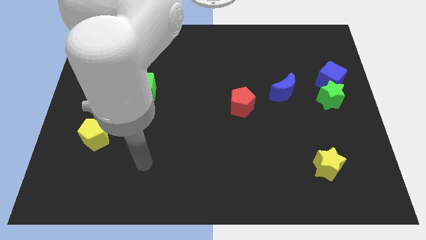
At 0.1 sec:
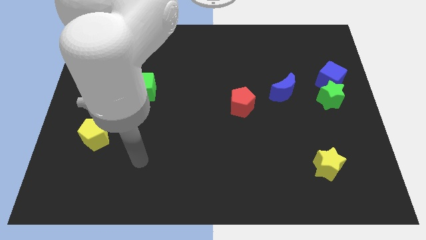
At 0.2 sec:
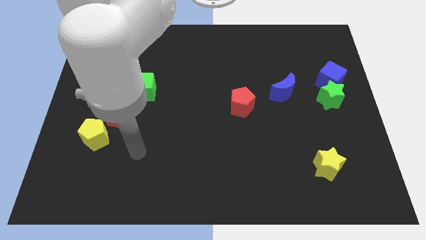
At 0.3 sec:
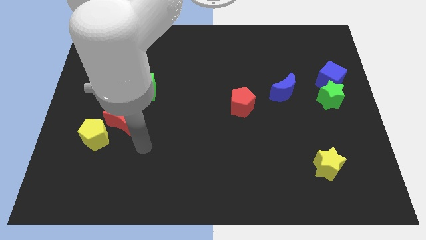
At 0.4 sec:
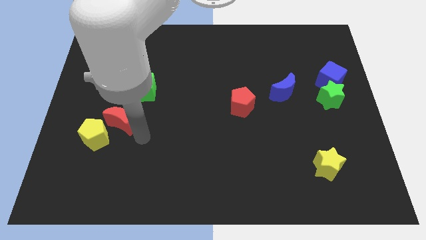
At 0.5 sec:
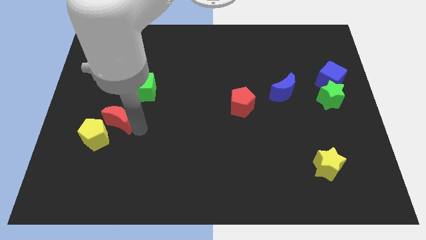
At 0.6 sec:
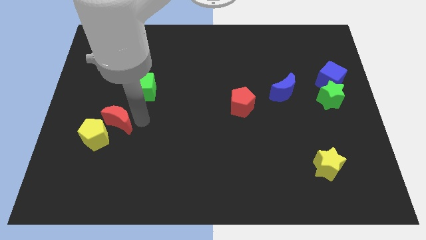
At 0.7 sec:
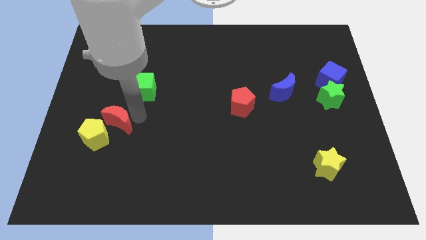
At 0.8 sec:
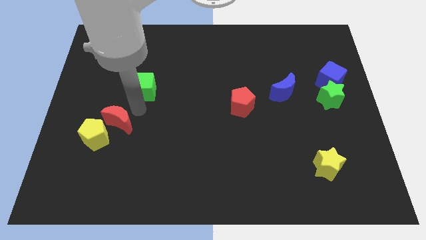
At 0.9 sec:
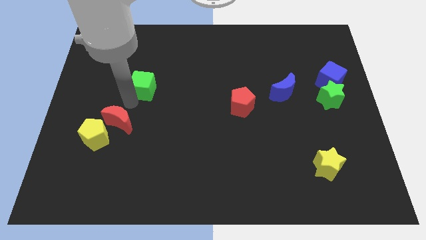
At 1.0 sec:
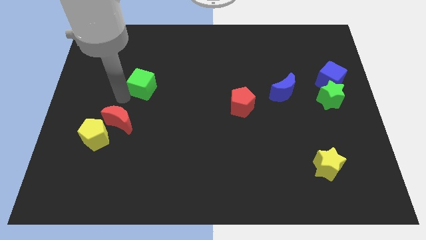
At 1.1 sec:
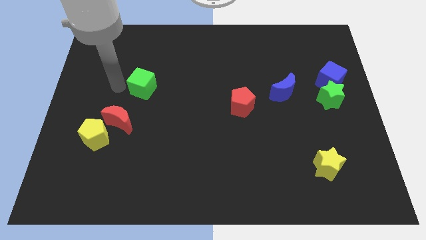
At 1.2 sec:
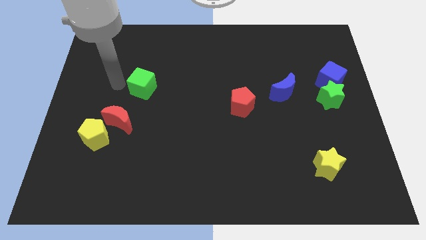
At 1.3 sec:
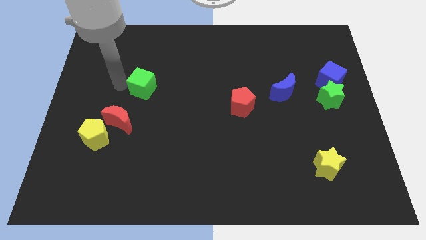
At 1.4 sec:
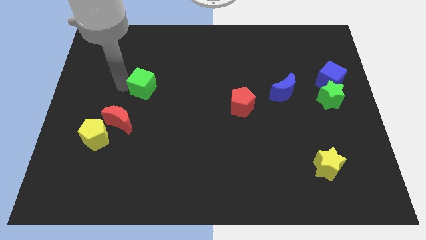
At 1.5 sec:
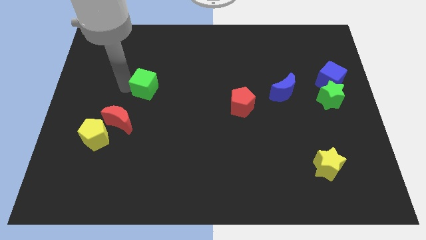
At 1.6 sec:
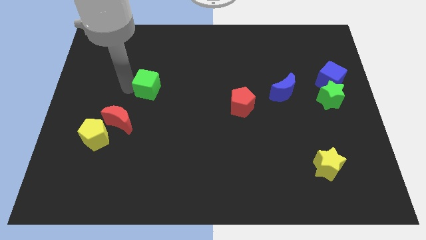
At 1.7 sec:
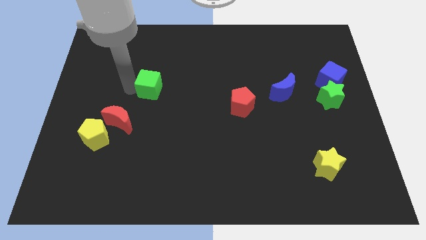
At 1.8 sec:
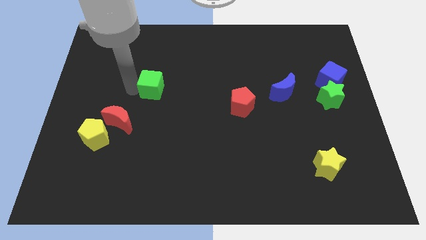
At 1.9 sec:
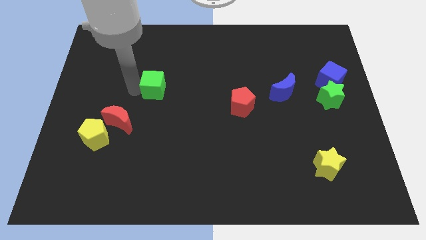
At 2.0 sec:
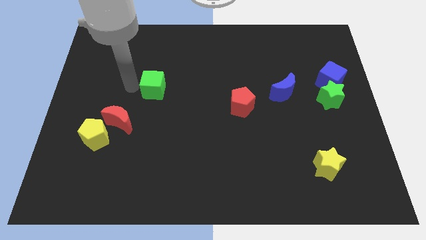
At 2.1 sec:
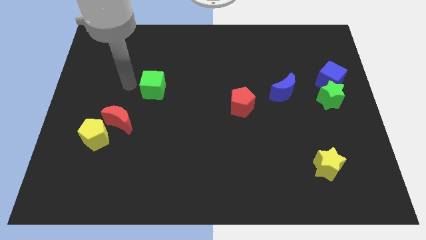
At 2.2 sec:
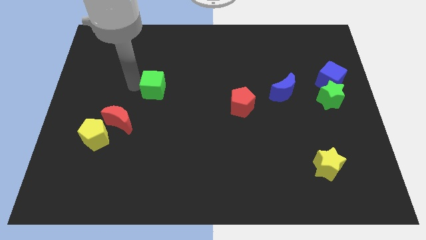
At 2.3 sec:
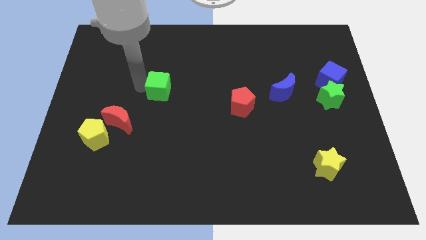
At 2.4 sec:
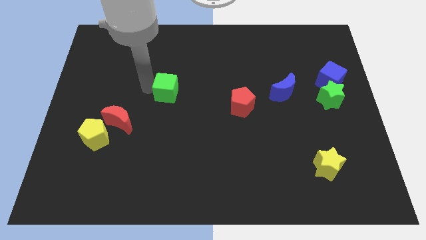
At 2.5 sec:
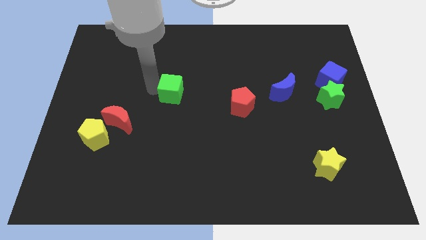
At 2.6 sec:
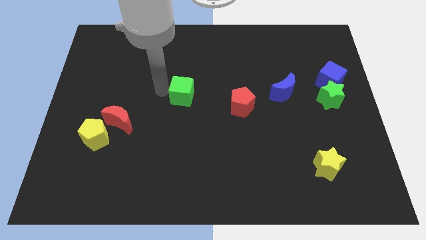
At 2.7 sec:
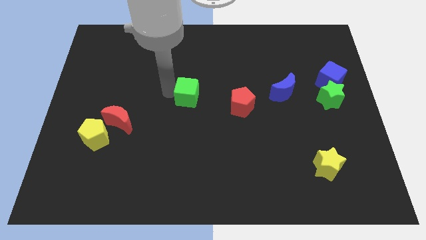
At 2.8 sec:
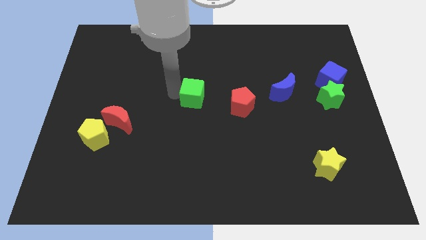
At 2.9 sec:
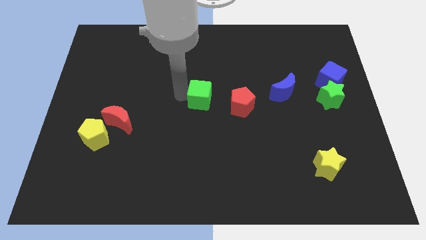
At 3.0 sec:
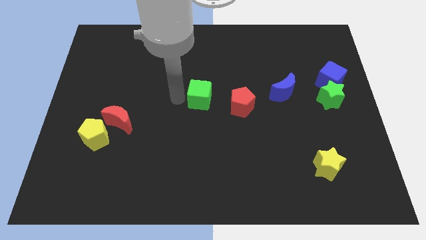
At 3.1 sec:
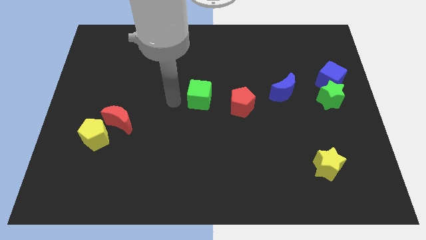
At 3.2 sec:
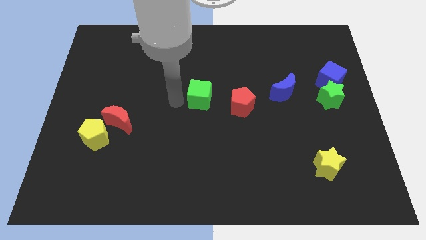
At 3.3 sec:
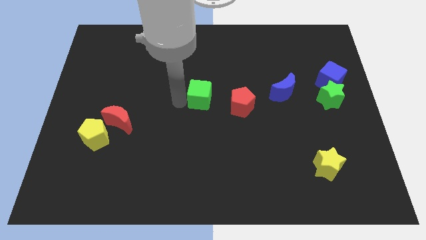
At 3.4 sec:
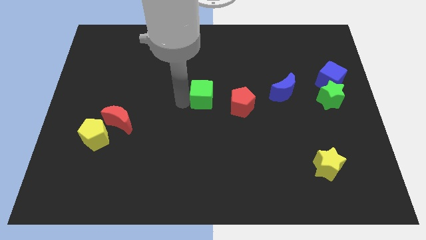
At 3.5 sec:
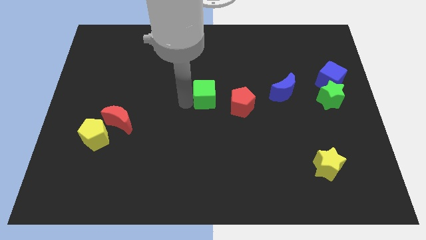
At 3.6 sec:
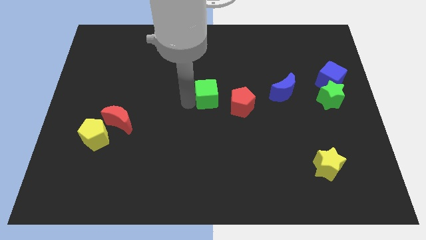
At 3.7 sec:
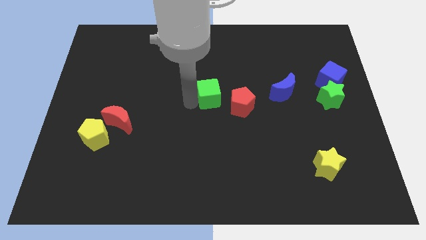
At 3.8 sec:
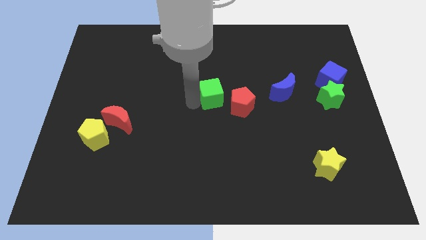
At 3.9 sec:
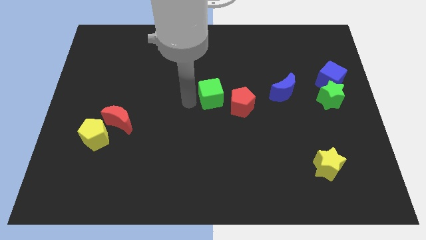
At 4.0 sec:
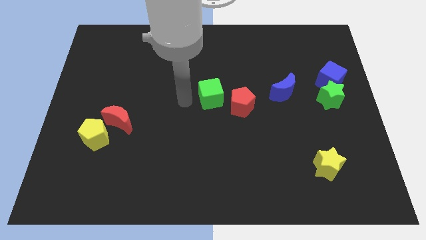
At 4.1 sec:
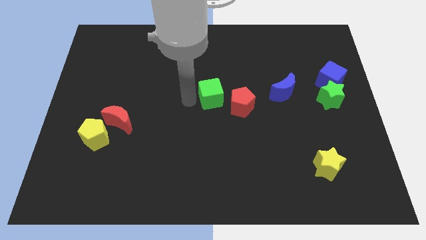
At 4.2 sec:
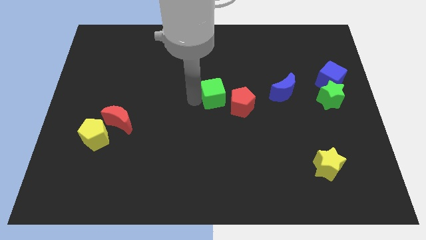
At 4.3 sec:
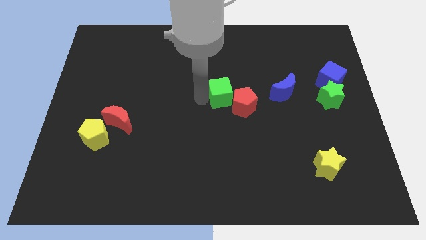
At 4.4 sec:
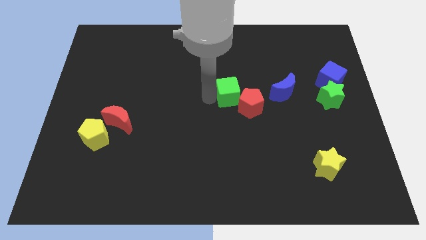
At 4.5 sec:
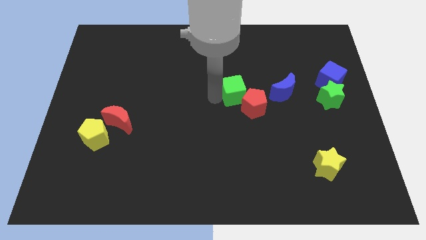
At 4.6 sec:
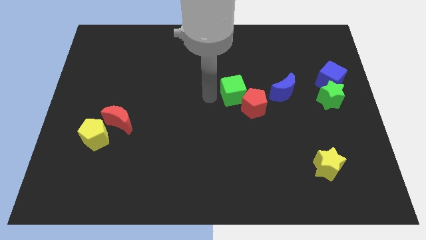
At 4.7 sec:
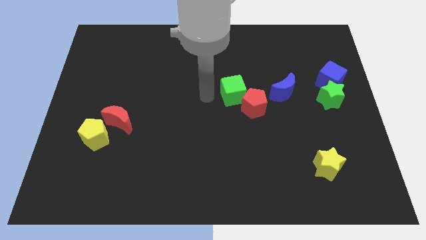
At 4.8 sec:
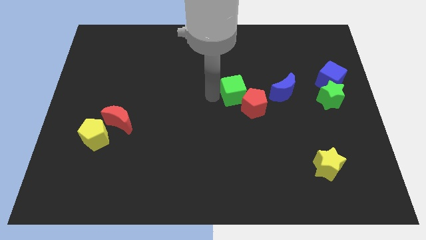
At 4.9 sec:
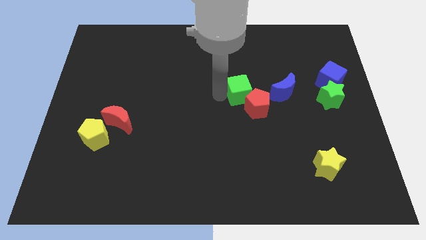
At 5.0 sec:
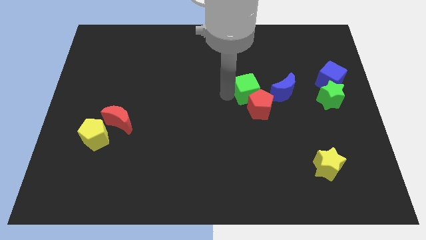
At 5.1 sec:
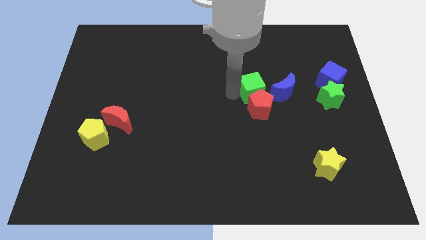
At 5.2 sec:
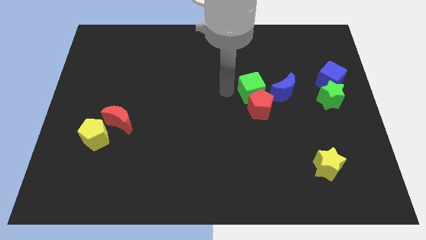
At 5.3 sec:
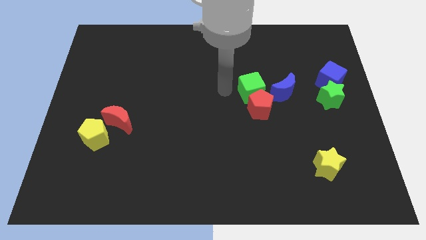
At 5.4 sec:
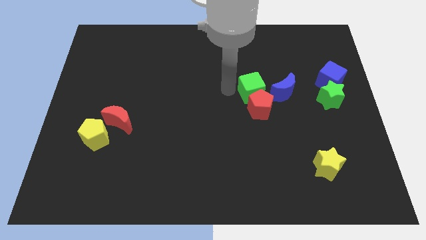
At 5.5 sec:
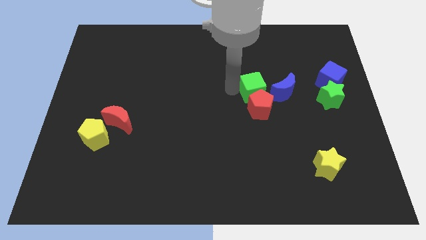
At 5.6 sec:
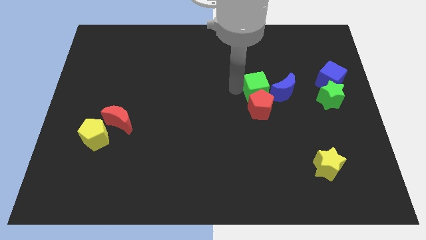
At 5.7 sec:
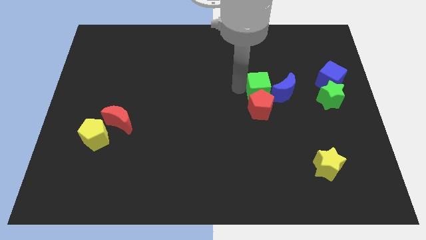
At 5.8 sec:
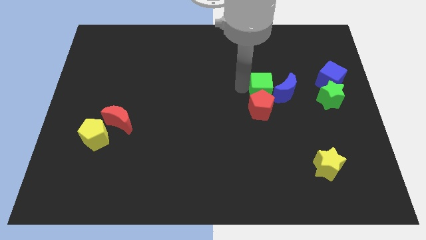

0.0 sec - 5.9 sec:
slide the green cube towards the blue moon

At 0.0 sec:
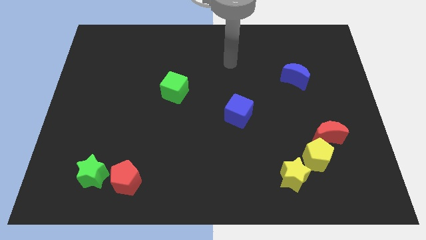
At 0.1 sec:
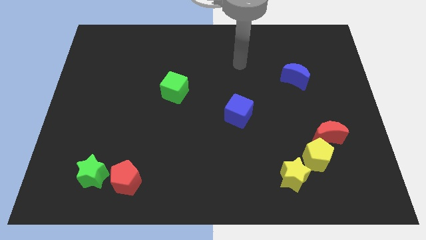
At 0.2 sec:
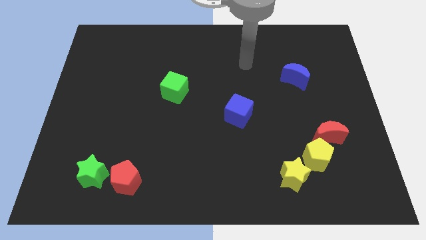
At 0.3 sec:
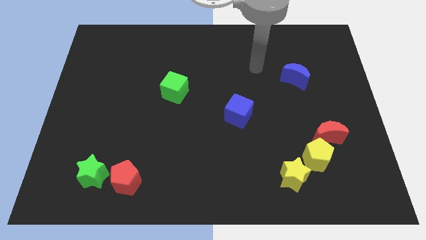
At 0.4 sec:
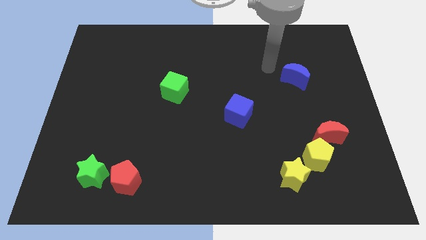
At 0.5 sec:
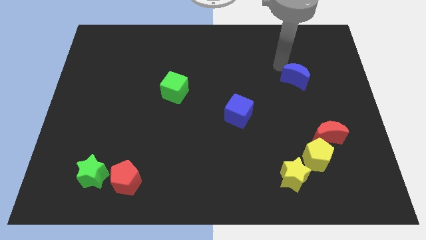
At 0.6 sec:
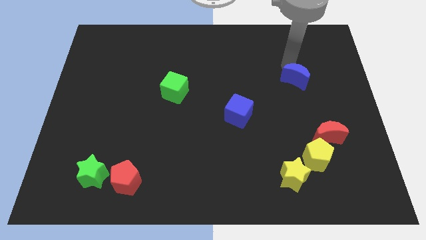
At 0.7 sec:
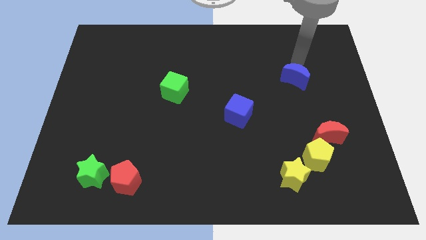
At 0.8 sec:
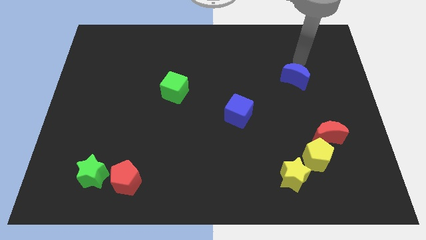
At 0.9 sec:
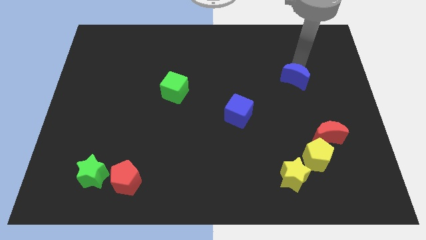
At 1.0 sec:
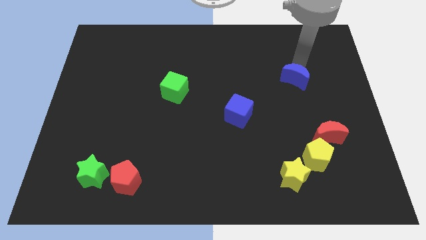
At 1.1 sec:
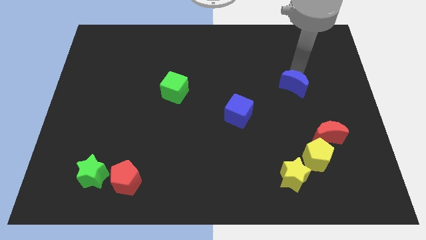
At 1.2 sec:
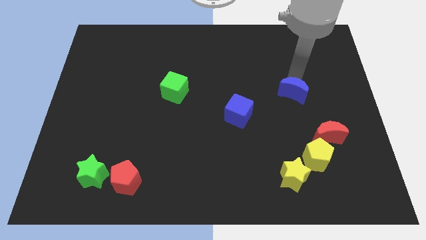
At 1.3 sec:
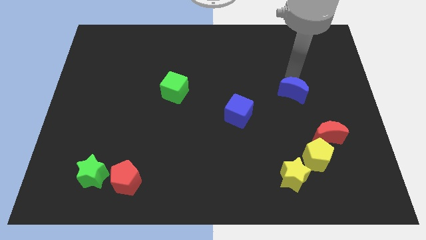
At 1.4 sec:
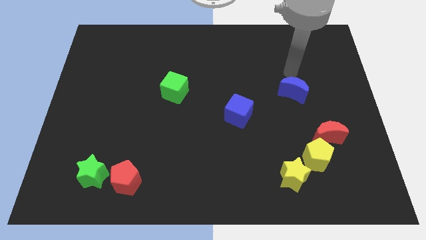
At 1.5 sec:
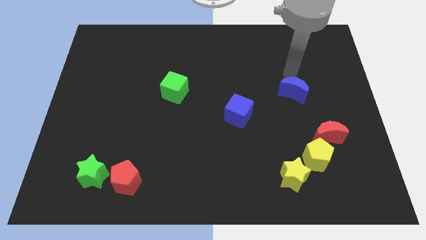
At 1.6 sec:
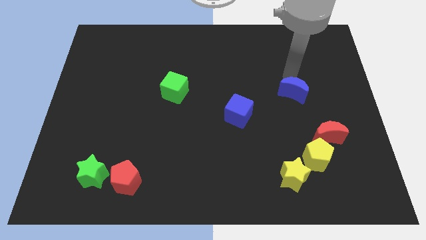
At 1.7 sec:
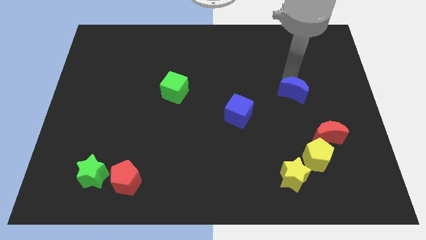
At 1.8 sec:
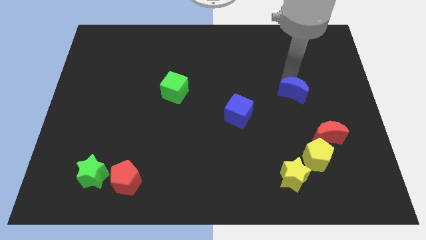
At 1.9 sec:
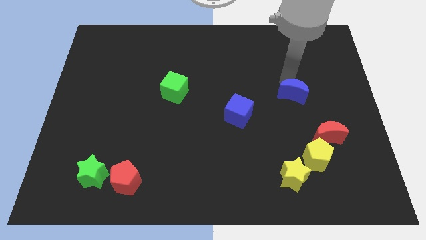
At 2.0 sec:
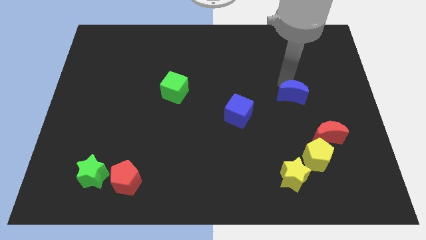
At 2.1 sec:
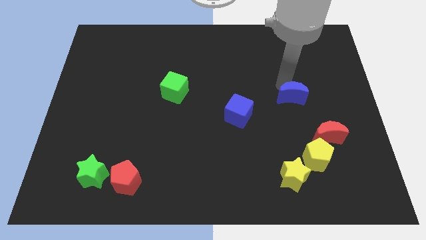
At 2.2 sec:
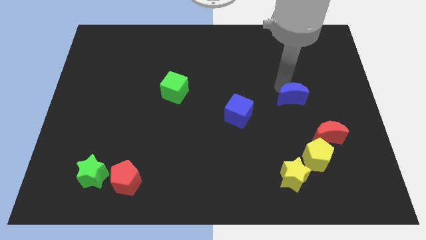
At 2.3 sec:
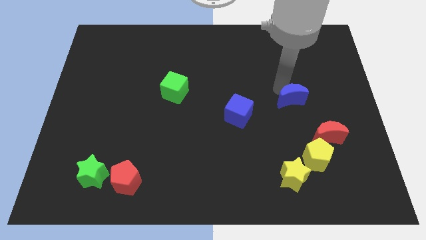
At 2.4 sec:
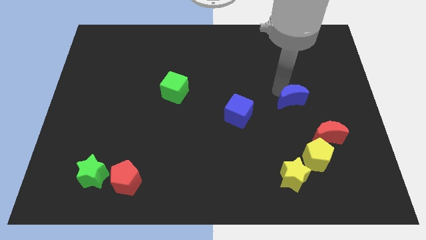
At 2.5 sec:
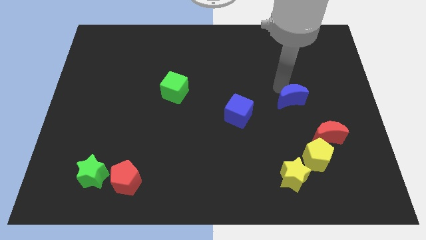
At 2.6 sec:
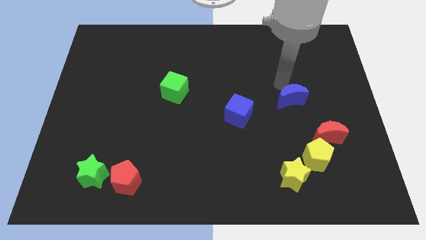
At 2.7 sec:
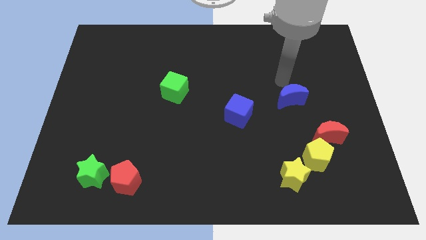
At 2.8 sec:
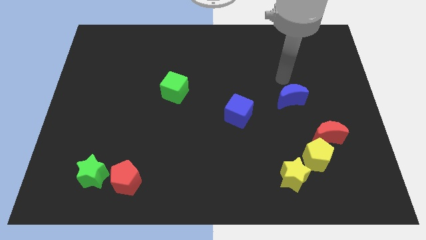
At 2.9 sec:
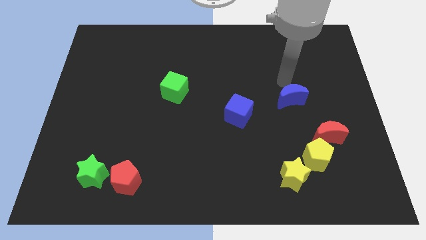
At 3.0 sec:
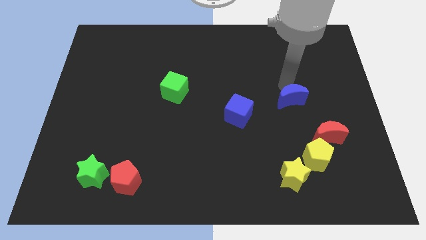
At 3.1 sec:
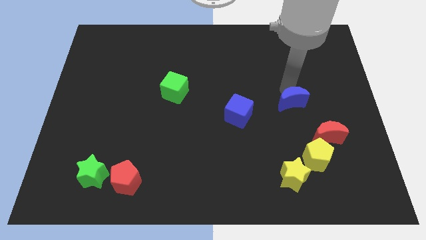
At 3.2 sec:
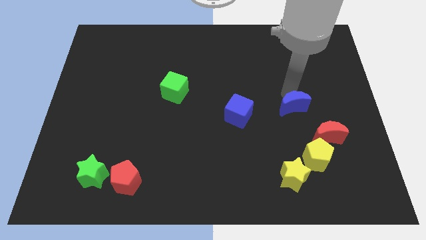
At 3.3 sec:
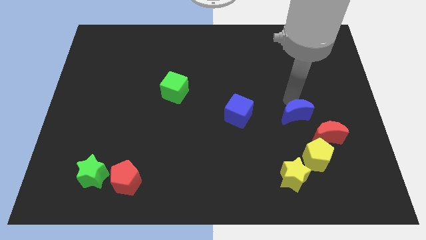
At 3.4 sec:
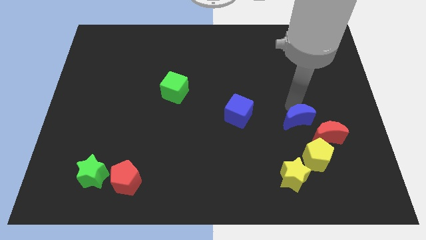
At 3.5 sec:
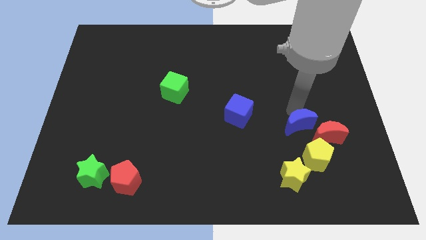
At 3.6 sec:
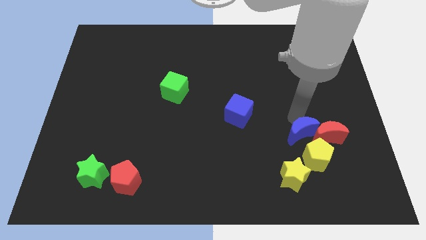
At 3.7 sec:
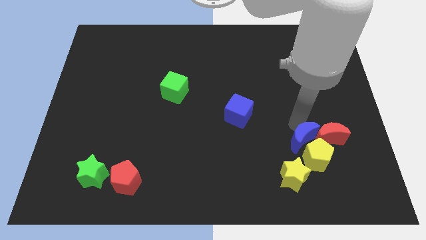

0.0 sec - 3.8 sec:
slide the blue moon next to the yellow pentagon
